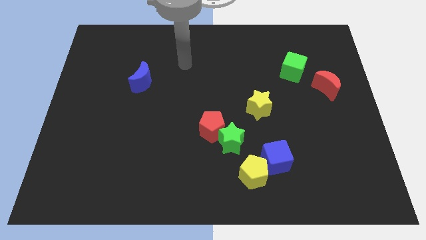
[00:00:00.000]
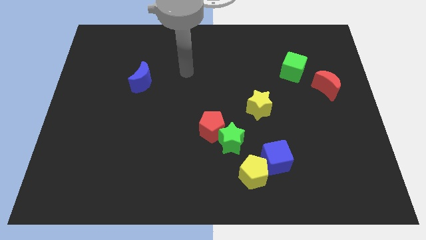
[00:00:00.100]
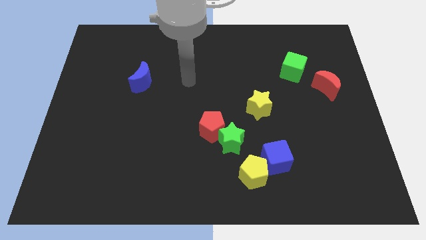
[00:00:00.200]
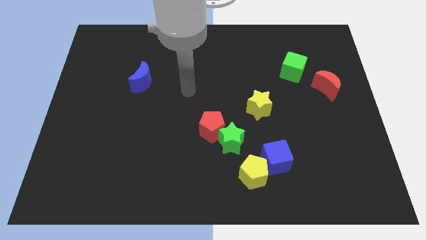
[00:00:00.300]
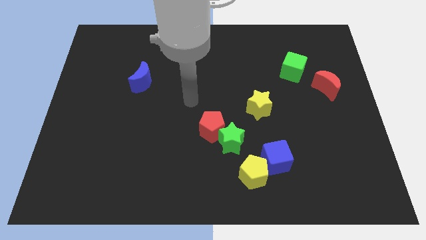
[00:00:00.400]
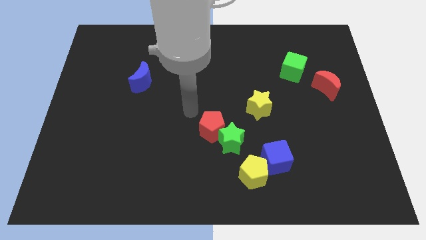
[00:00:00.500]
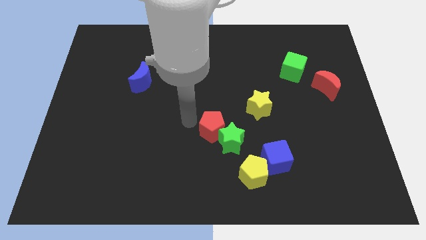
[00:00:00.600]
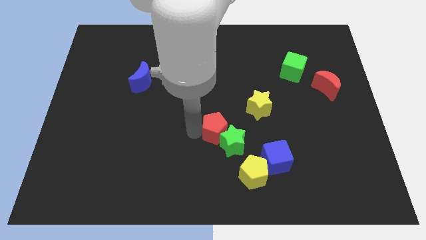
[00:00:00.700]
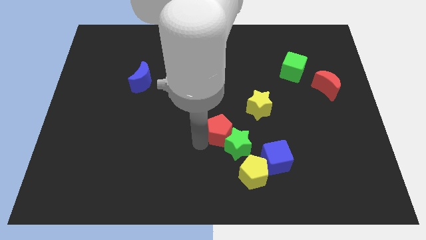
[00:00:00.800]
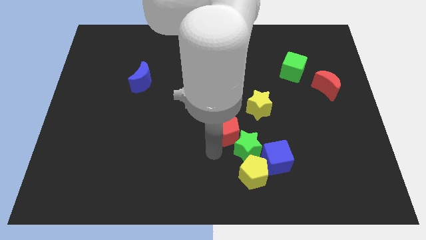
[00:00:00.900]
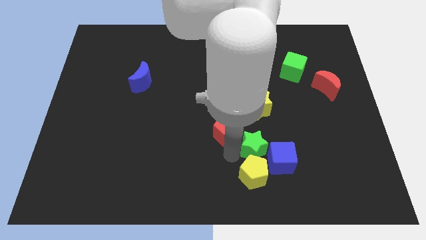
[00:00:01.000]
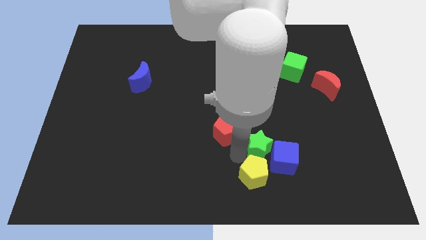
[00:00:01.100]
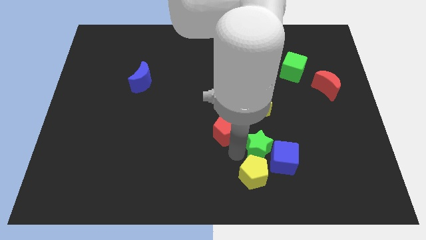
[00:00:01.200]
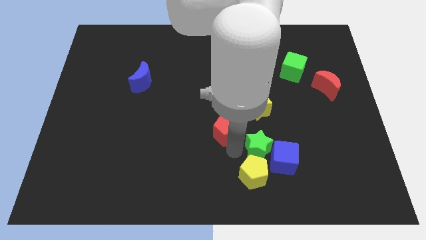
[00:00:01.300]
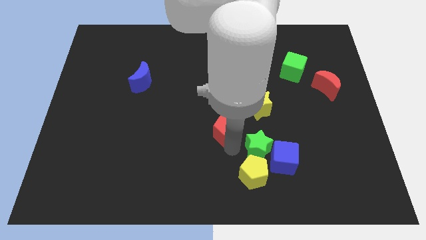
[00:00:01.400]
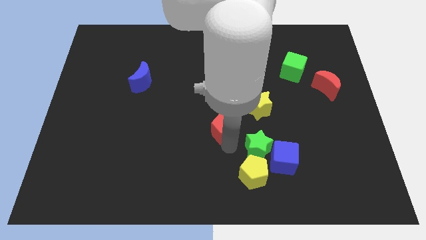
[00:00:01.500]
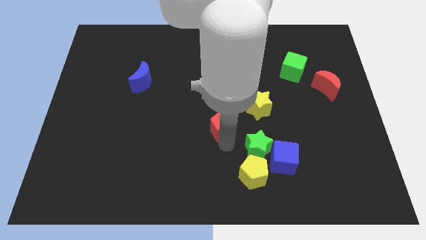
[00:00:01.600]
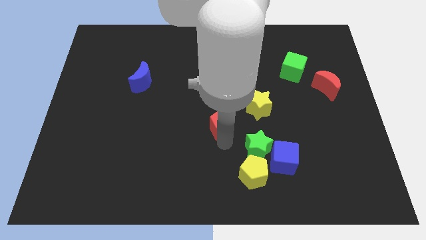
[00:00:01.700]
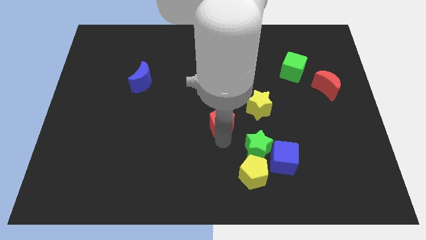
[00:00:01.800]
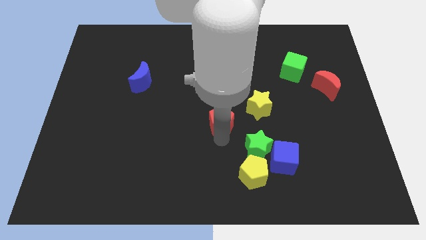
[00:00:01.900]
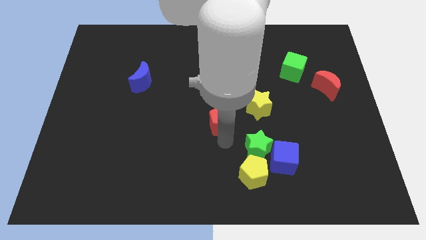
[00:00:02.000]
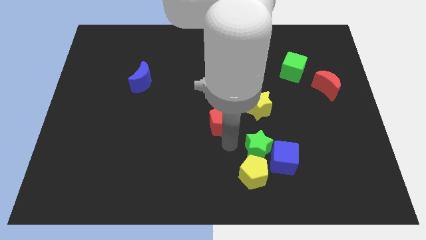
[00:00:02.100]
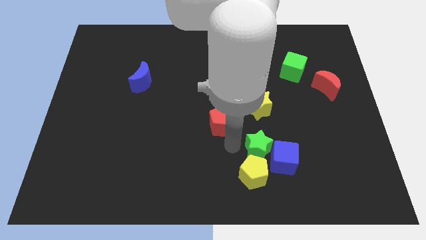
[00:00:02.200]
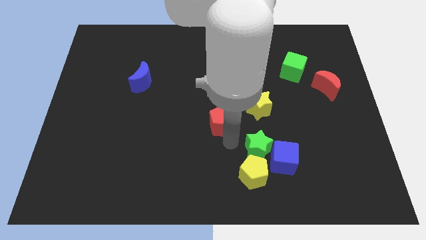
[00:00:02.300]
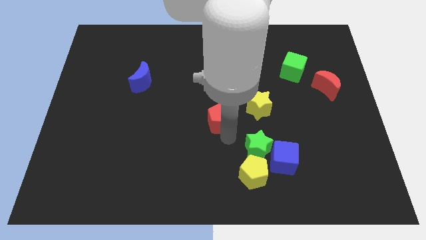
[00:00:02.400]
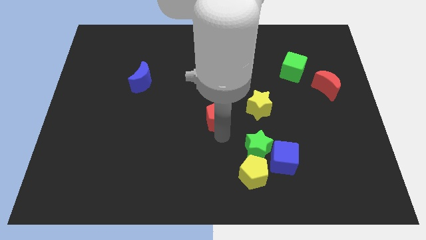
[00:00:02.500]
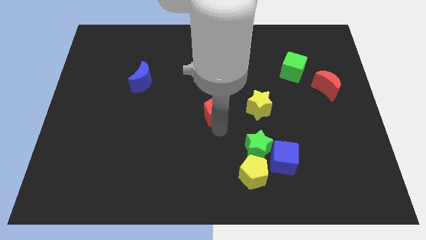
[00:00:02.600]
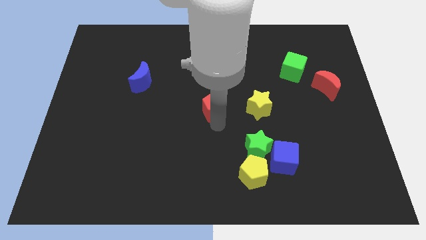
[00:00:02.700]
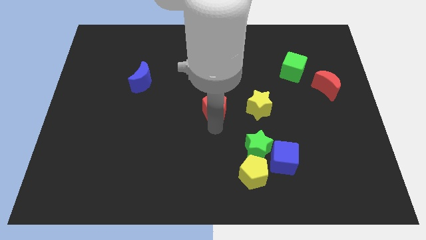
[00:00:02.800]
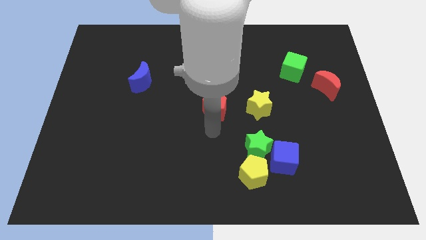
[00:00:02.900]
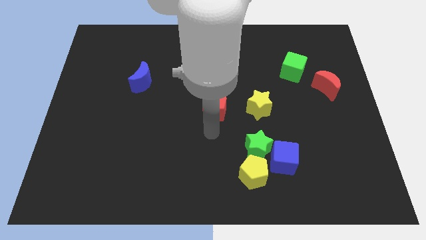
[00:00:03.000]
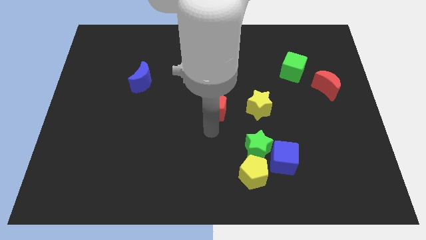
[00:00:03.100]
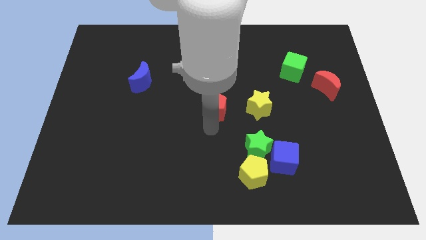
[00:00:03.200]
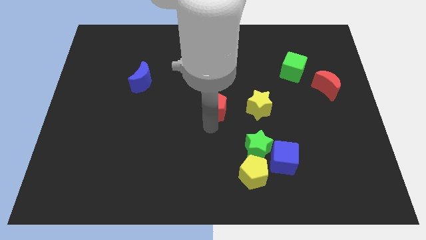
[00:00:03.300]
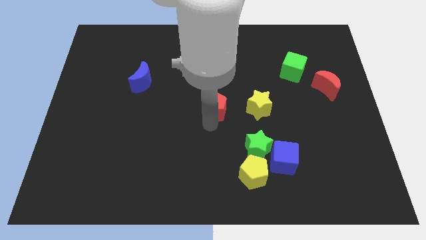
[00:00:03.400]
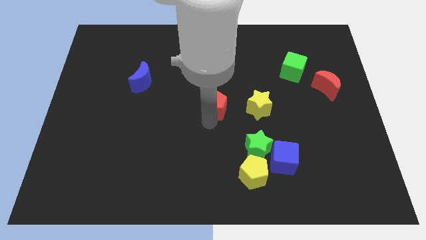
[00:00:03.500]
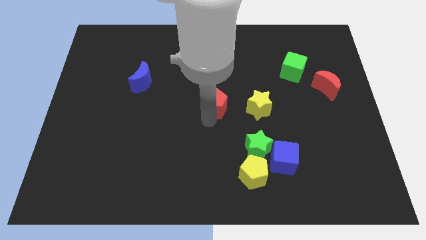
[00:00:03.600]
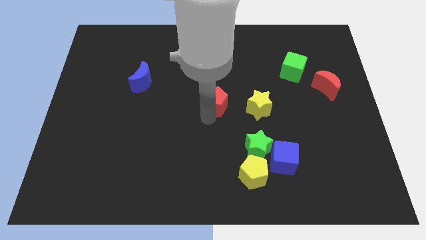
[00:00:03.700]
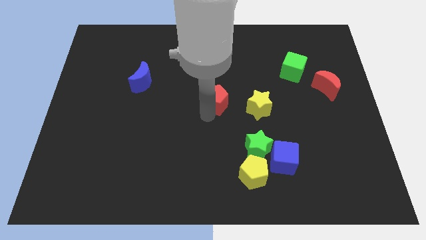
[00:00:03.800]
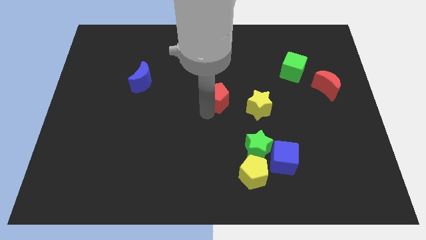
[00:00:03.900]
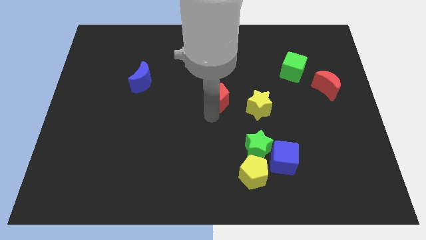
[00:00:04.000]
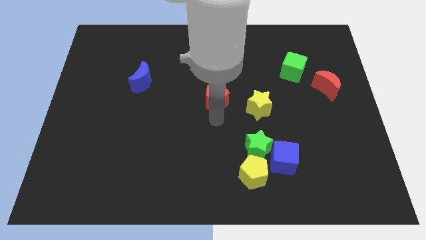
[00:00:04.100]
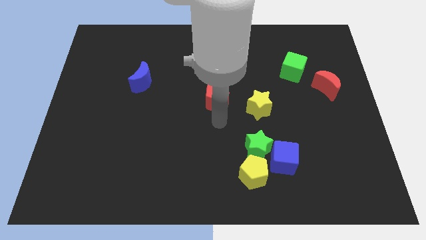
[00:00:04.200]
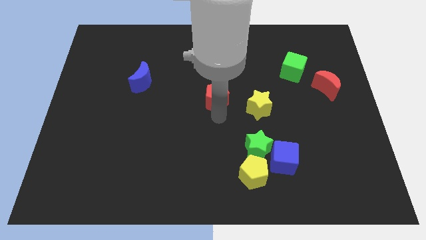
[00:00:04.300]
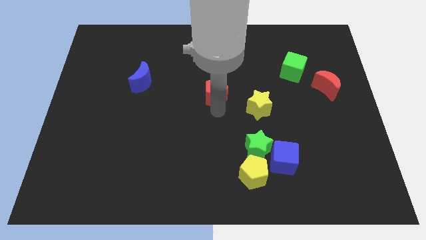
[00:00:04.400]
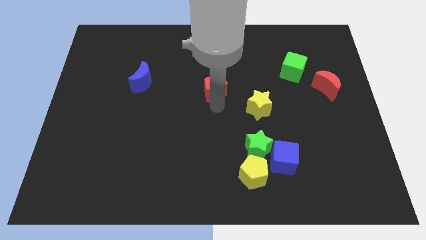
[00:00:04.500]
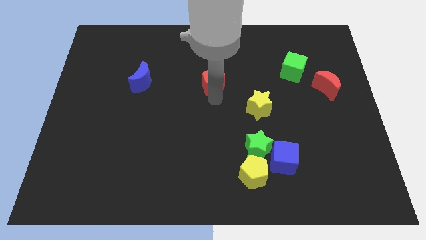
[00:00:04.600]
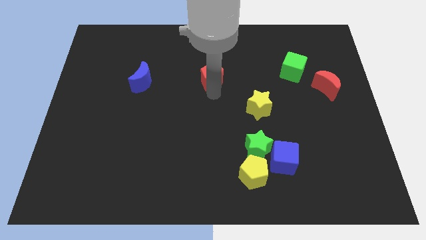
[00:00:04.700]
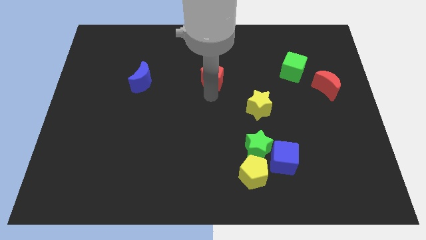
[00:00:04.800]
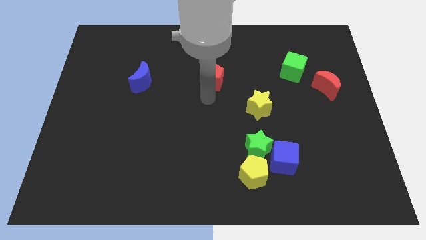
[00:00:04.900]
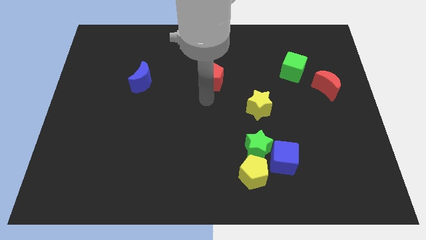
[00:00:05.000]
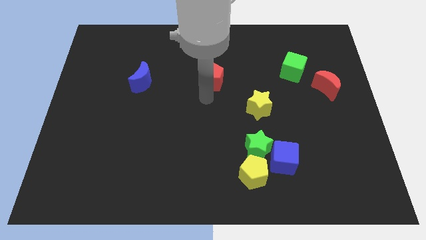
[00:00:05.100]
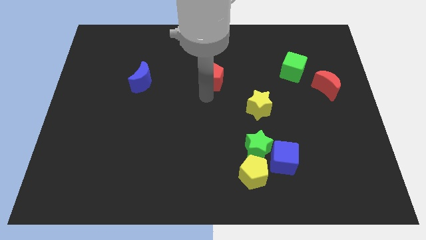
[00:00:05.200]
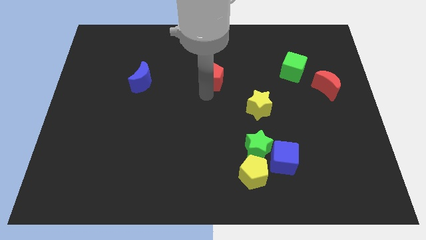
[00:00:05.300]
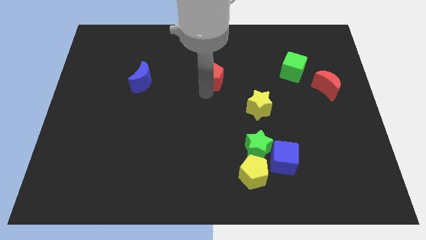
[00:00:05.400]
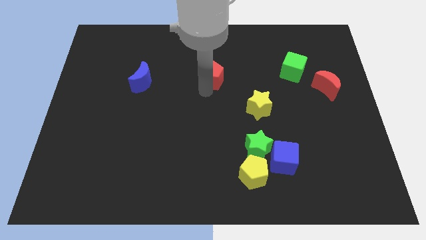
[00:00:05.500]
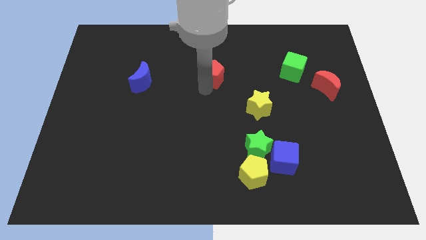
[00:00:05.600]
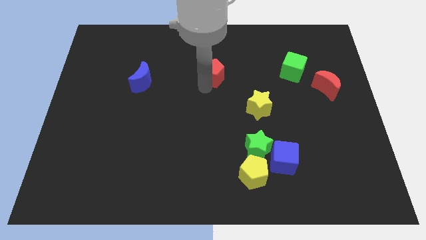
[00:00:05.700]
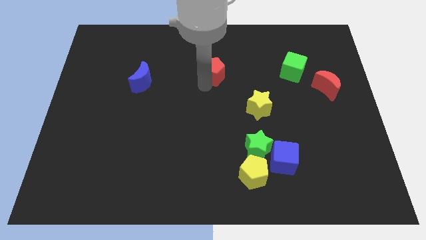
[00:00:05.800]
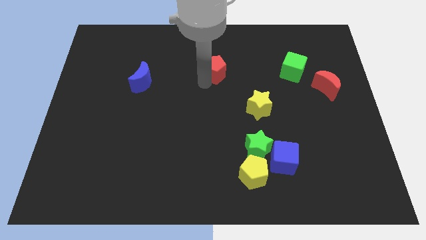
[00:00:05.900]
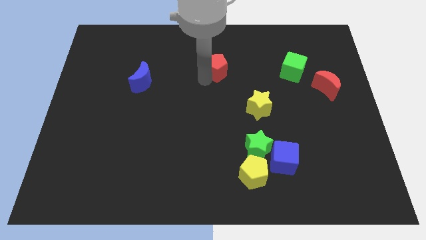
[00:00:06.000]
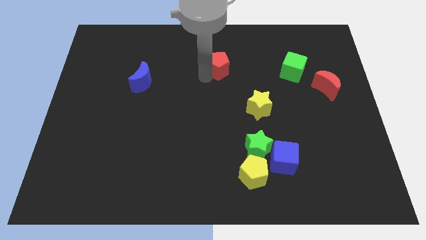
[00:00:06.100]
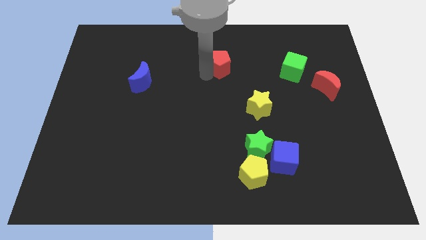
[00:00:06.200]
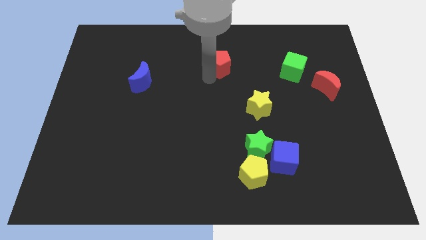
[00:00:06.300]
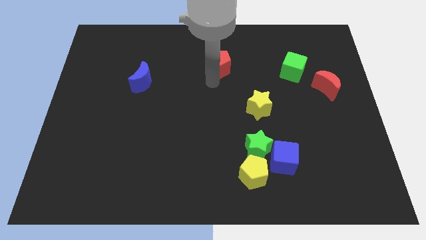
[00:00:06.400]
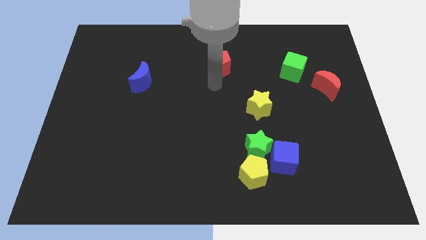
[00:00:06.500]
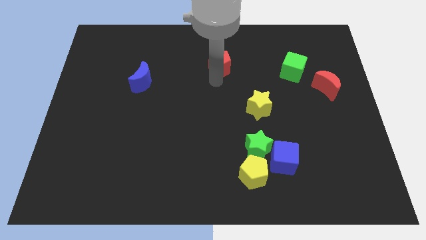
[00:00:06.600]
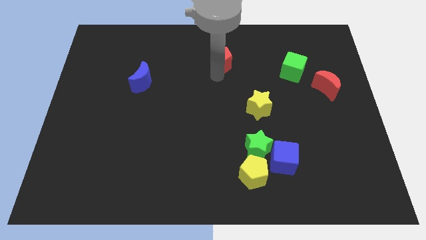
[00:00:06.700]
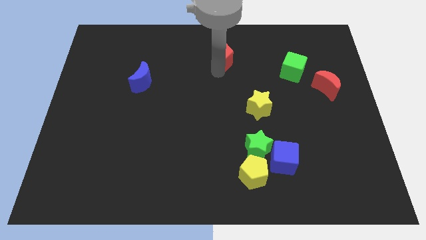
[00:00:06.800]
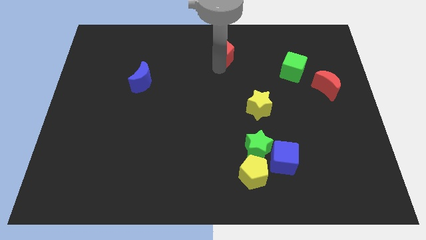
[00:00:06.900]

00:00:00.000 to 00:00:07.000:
put the red pentagon to the towards your base

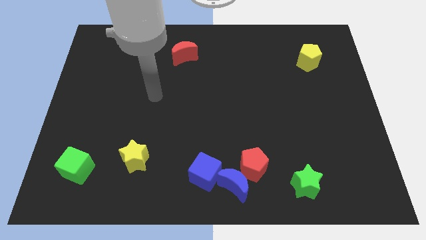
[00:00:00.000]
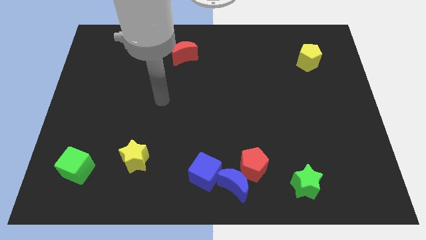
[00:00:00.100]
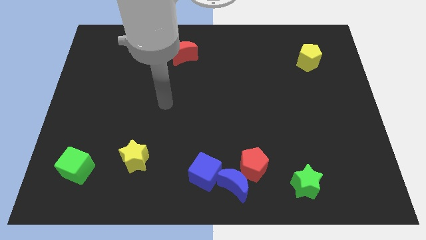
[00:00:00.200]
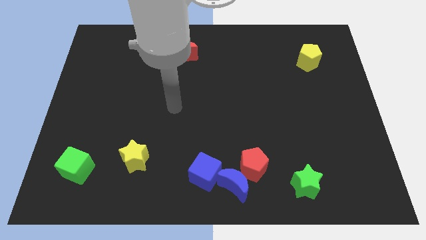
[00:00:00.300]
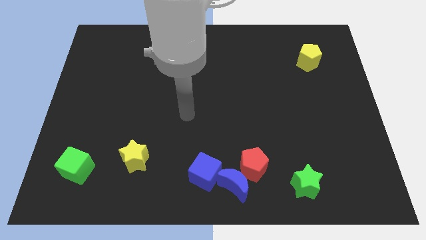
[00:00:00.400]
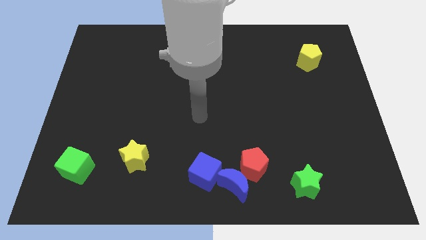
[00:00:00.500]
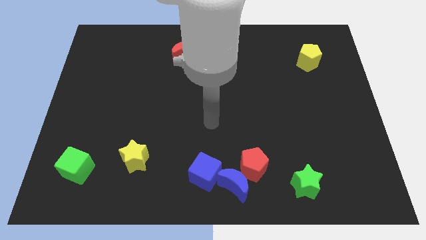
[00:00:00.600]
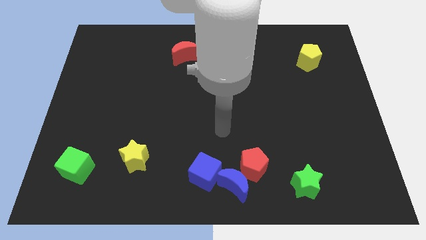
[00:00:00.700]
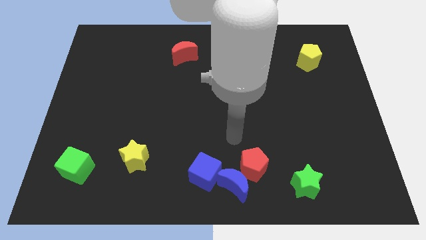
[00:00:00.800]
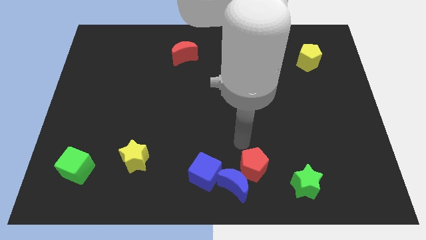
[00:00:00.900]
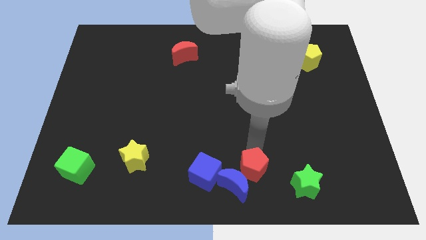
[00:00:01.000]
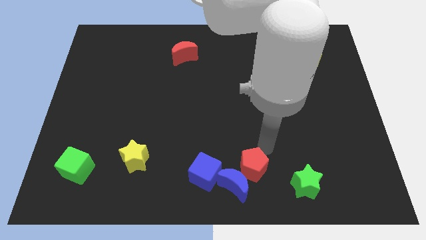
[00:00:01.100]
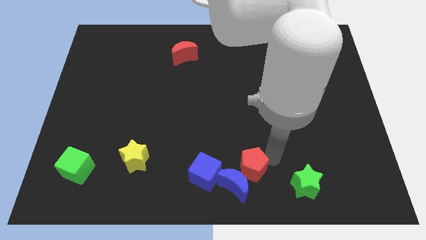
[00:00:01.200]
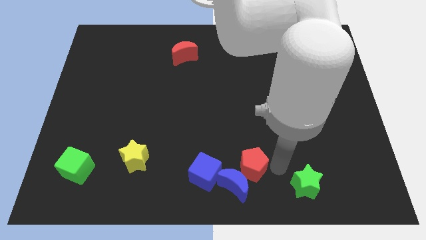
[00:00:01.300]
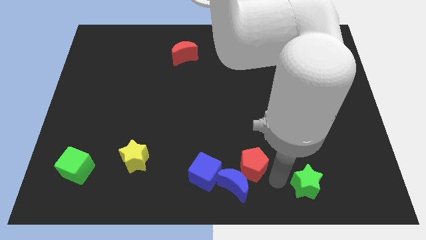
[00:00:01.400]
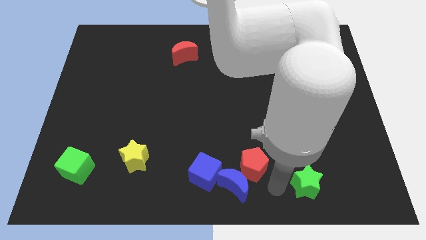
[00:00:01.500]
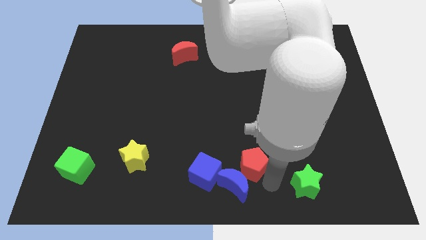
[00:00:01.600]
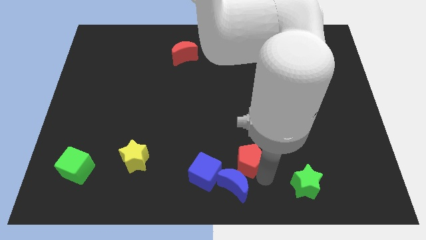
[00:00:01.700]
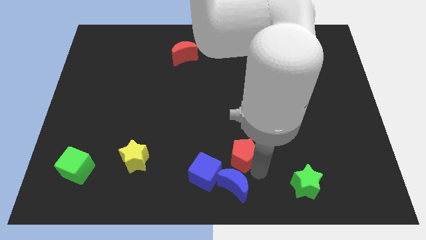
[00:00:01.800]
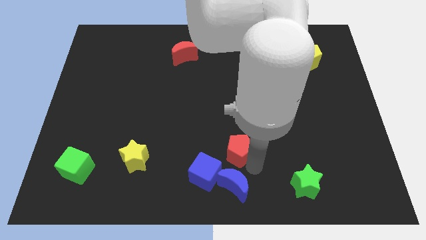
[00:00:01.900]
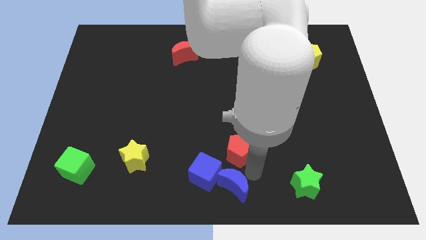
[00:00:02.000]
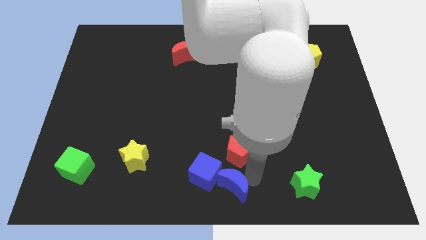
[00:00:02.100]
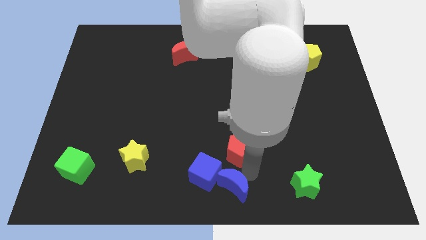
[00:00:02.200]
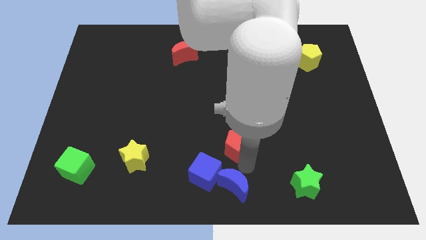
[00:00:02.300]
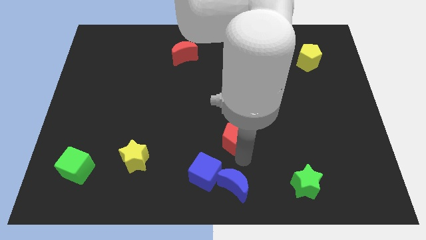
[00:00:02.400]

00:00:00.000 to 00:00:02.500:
slide the red pentagon to the center
